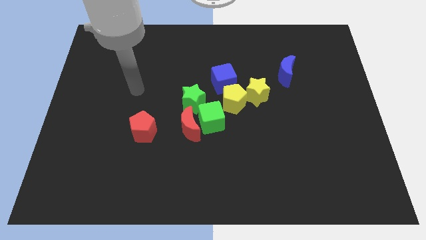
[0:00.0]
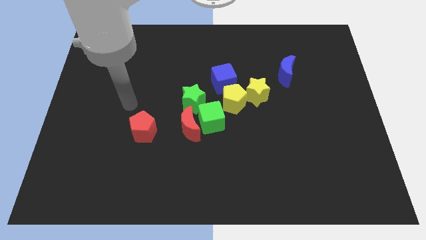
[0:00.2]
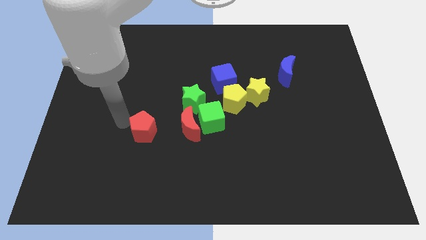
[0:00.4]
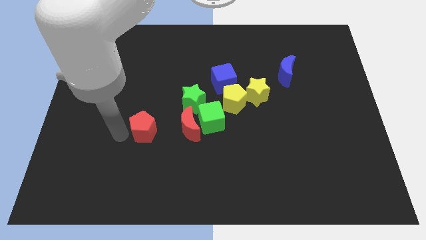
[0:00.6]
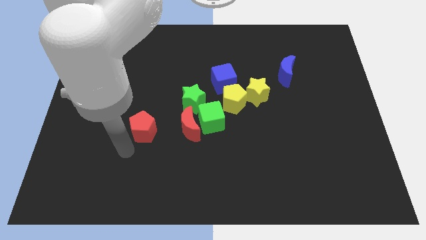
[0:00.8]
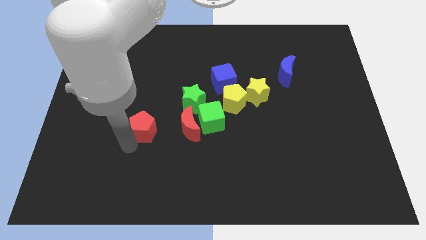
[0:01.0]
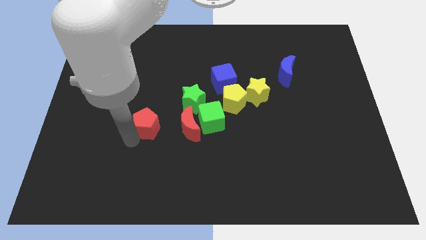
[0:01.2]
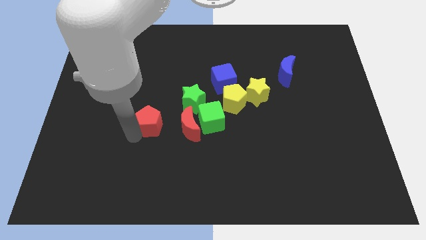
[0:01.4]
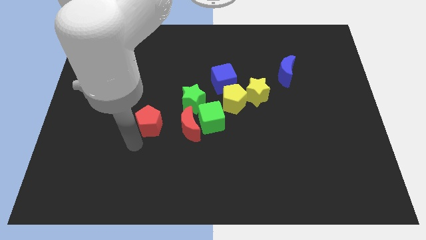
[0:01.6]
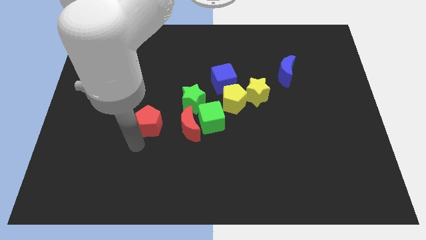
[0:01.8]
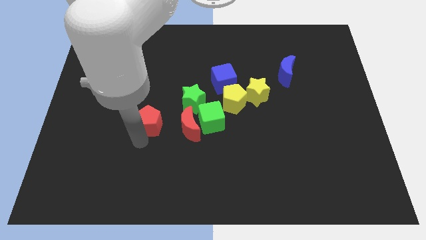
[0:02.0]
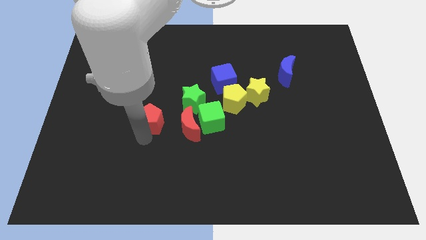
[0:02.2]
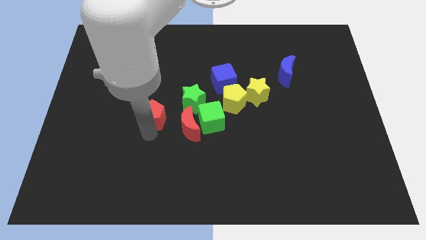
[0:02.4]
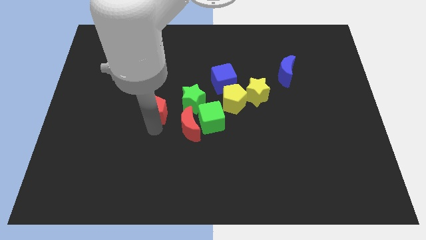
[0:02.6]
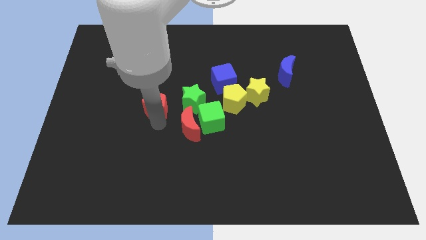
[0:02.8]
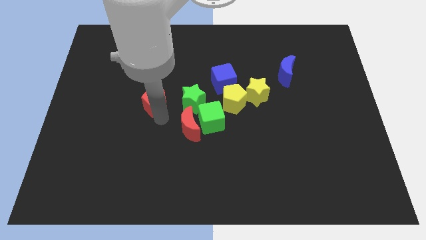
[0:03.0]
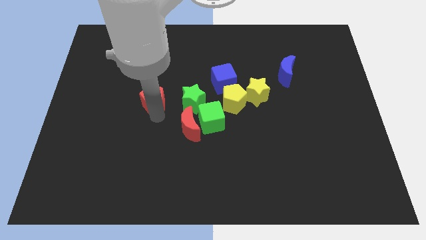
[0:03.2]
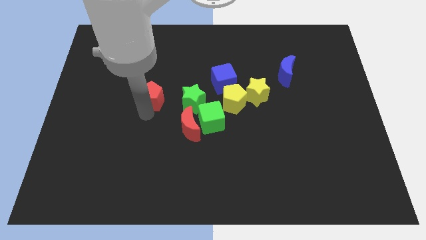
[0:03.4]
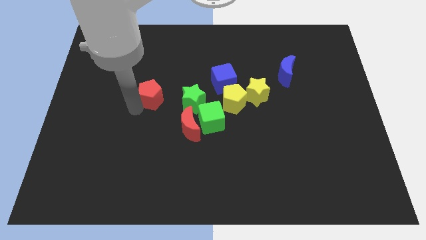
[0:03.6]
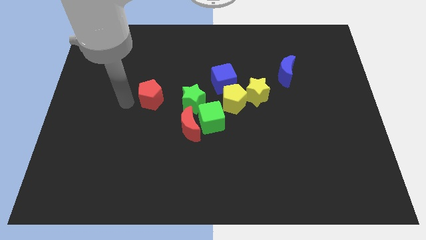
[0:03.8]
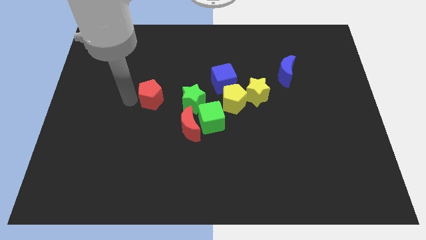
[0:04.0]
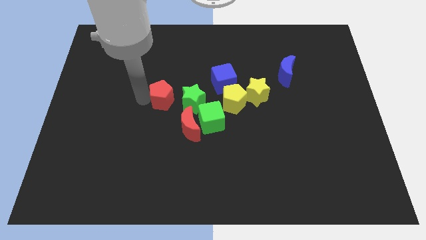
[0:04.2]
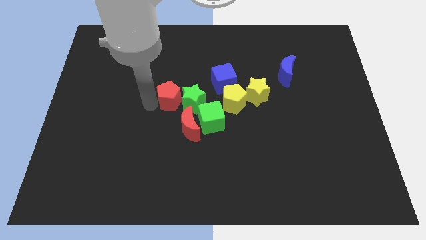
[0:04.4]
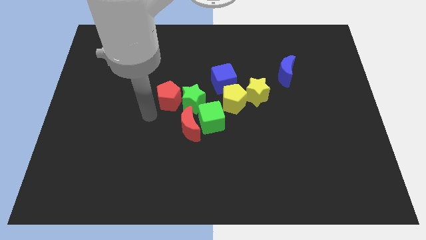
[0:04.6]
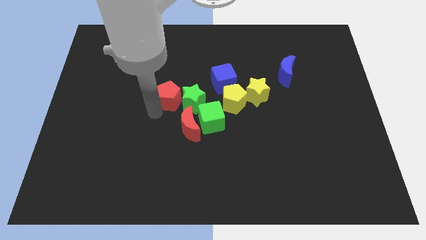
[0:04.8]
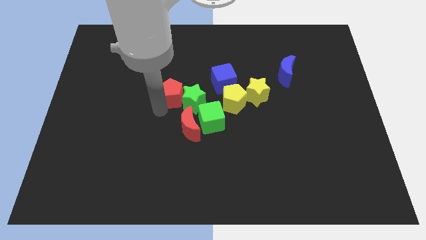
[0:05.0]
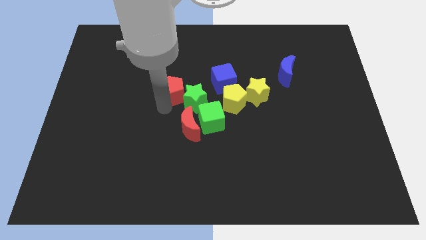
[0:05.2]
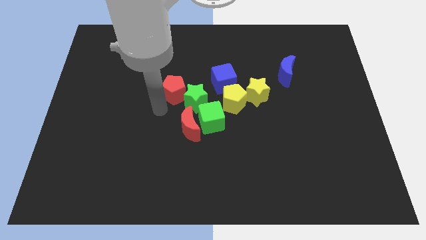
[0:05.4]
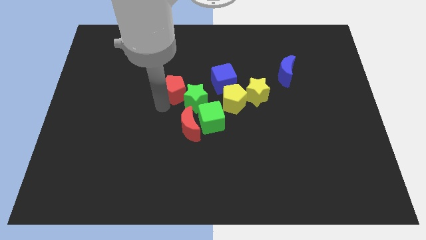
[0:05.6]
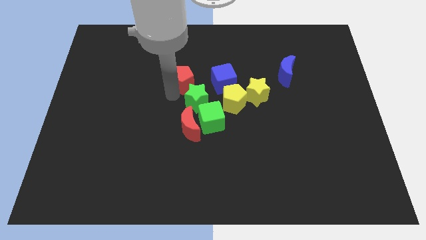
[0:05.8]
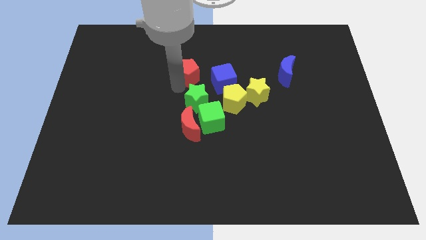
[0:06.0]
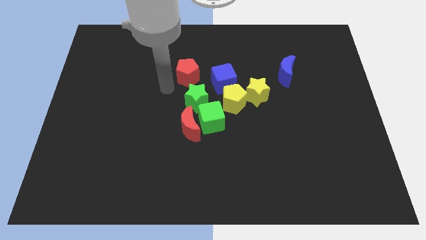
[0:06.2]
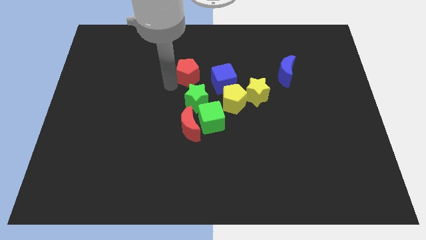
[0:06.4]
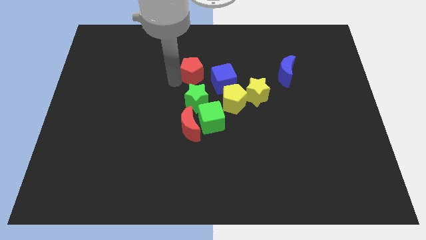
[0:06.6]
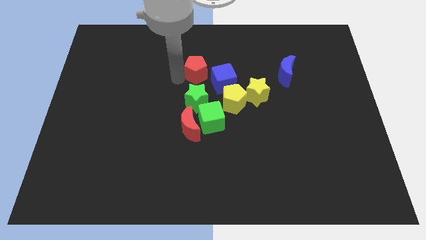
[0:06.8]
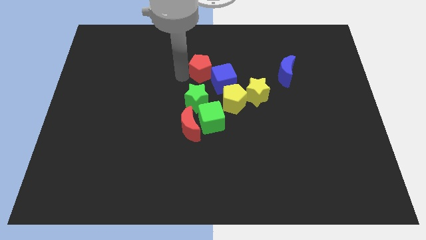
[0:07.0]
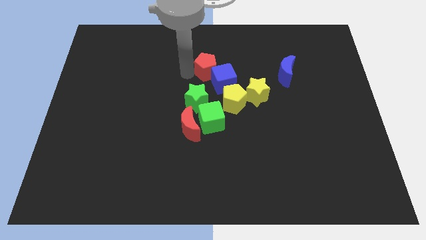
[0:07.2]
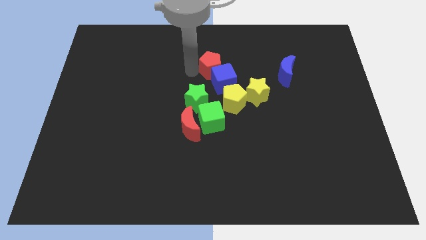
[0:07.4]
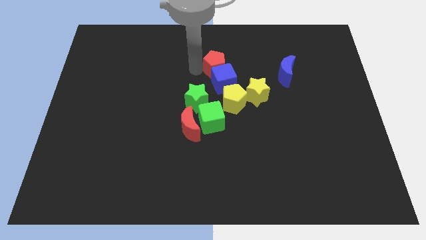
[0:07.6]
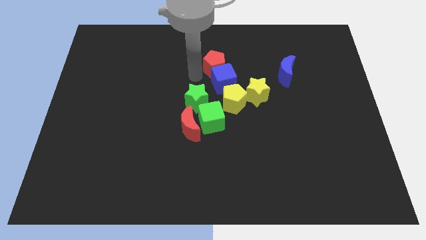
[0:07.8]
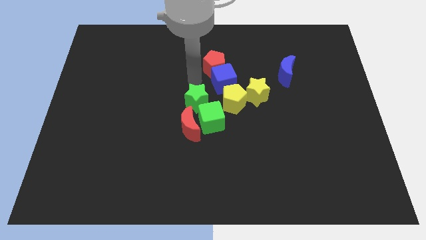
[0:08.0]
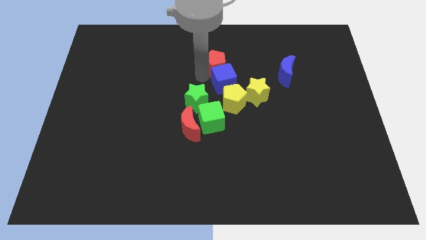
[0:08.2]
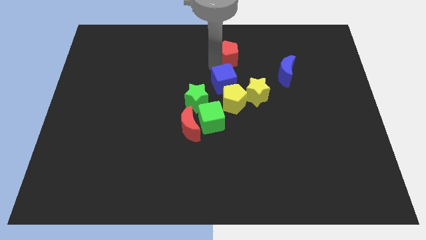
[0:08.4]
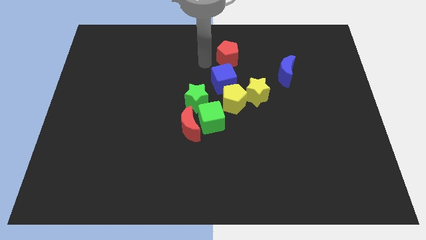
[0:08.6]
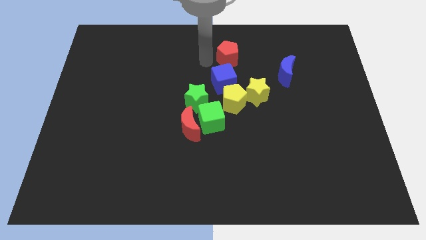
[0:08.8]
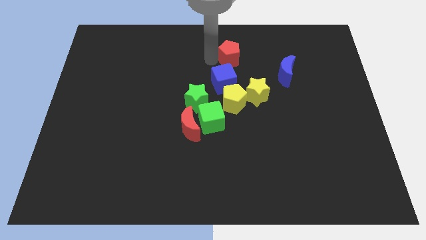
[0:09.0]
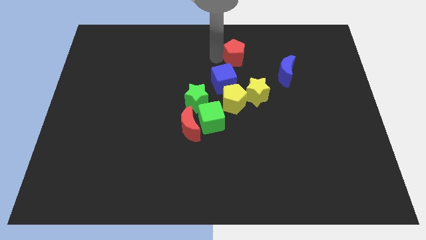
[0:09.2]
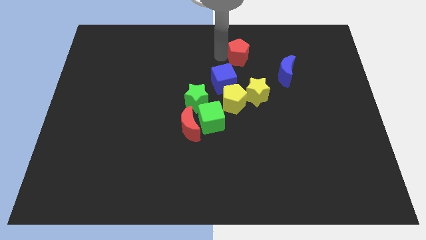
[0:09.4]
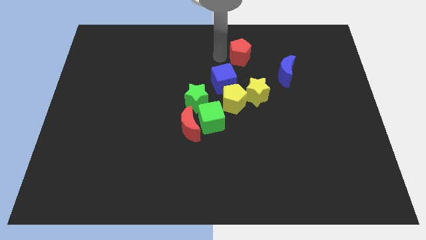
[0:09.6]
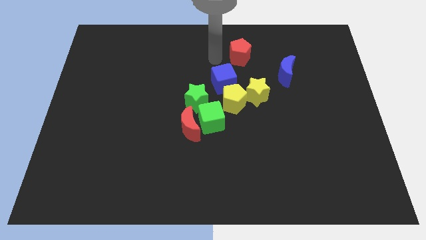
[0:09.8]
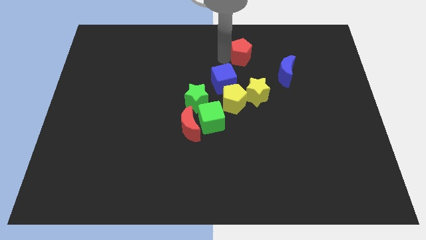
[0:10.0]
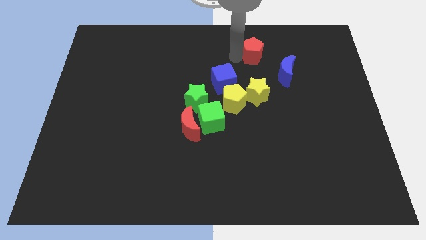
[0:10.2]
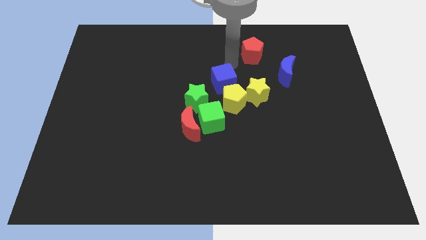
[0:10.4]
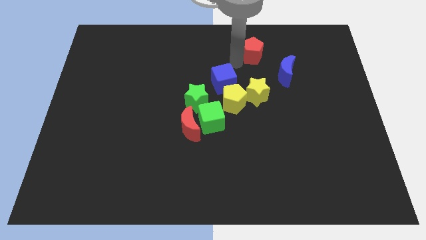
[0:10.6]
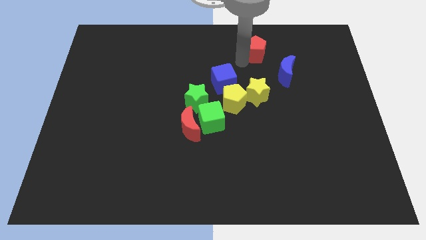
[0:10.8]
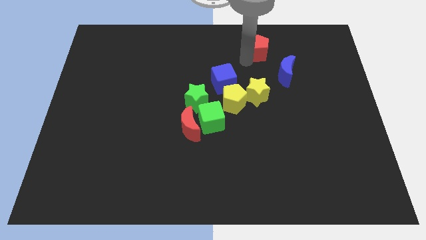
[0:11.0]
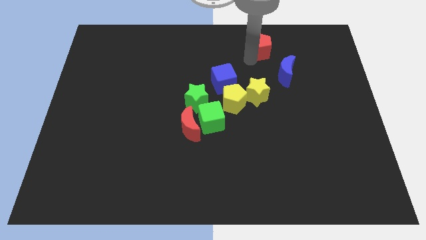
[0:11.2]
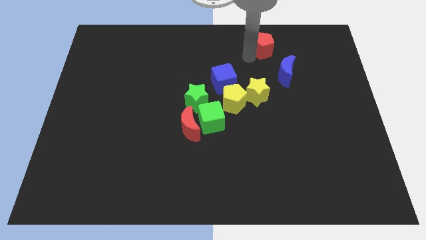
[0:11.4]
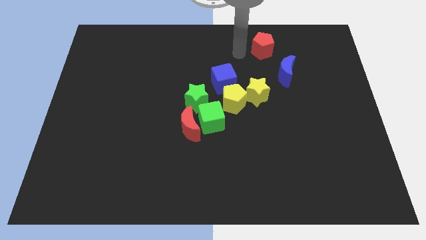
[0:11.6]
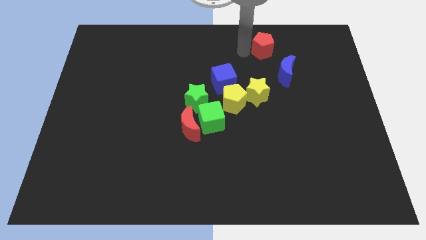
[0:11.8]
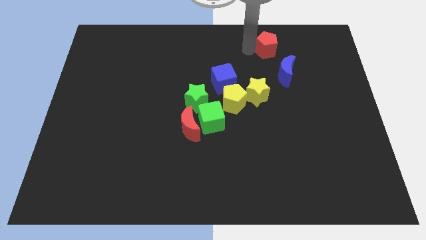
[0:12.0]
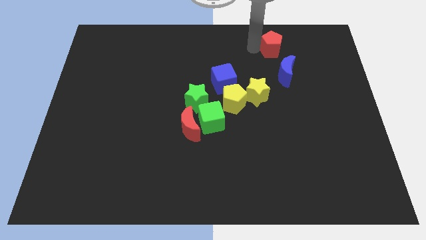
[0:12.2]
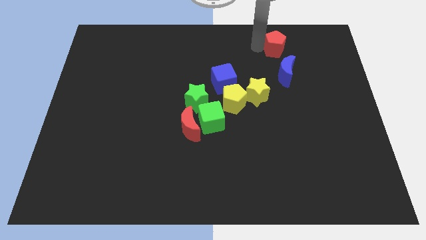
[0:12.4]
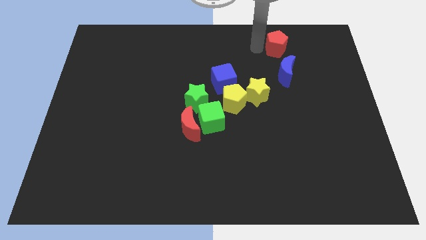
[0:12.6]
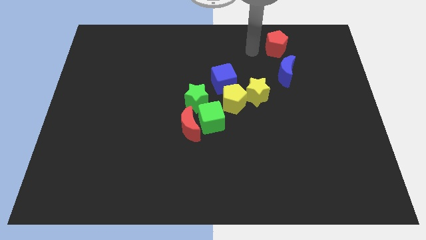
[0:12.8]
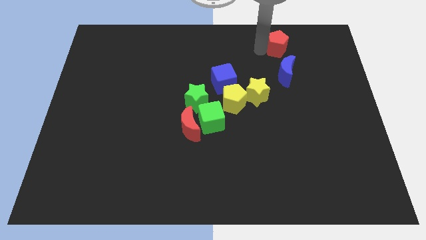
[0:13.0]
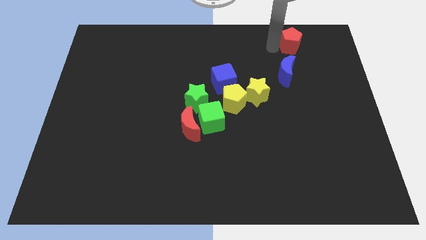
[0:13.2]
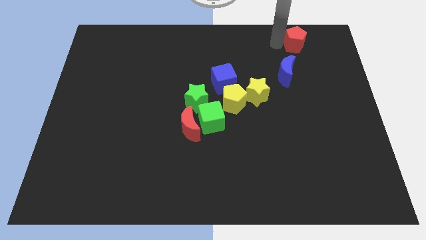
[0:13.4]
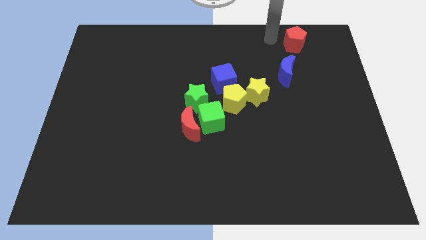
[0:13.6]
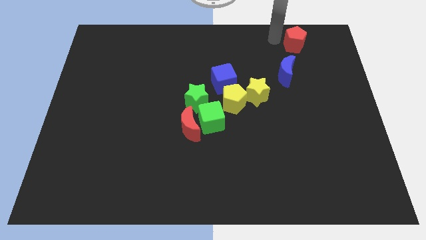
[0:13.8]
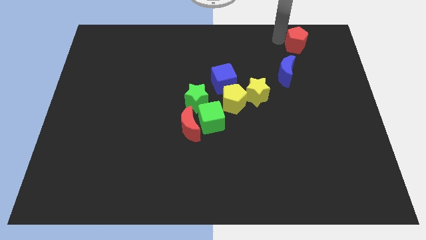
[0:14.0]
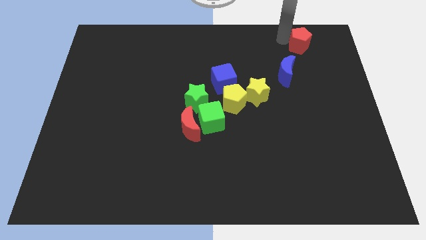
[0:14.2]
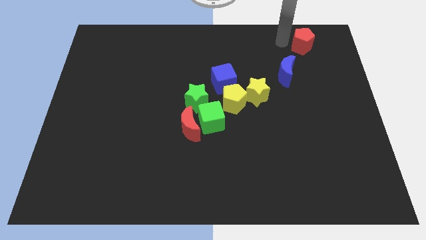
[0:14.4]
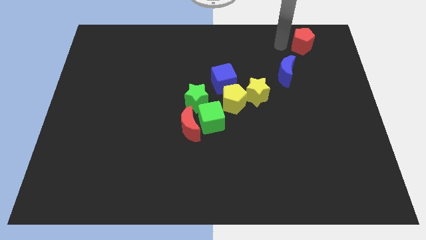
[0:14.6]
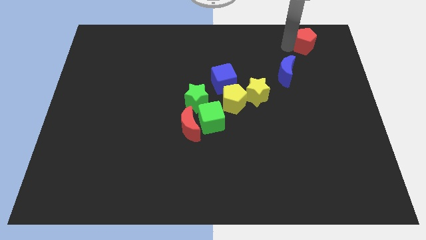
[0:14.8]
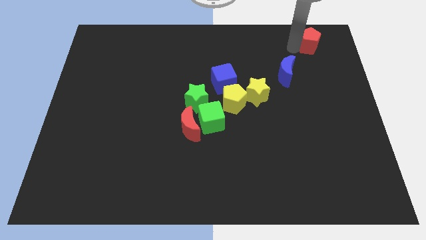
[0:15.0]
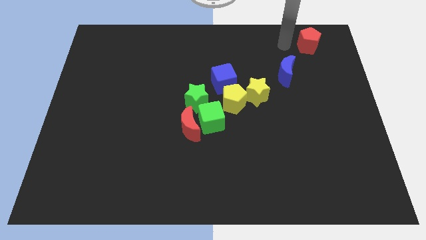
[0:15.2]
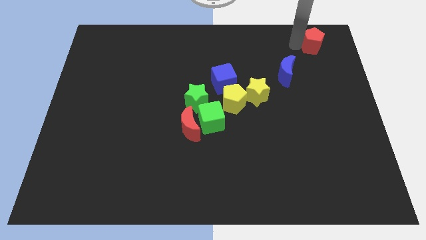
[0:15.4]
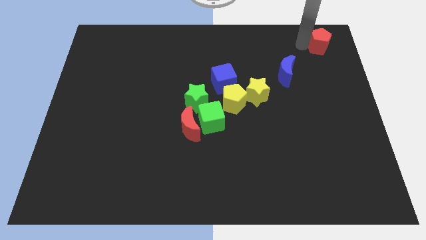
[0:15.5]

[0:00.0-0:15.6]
put the red pentagon to the upper right corner
